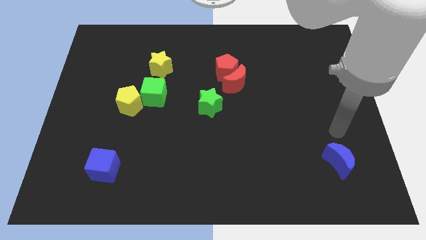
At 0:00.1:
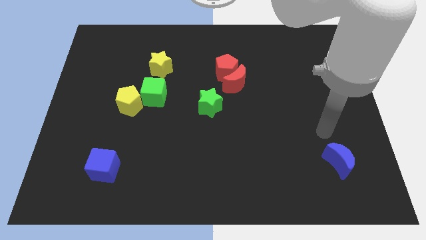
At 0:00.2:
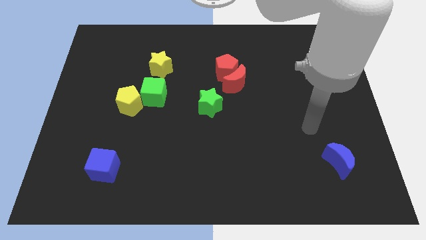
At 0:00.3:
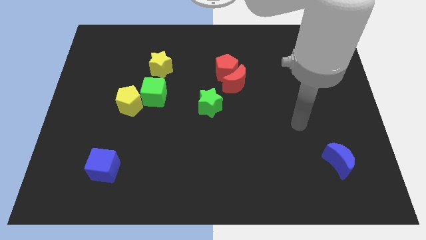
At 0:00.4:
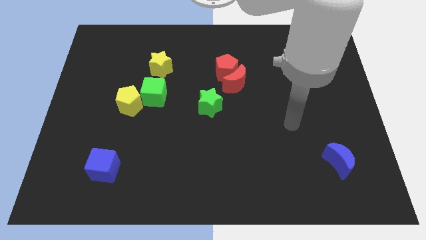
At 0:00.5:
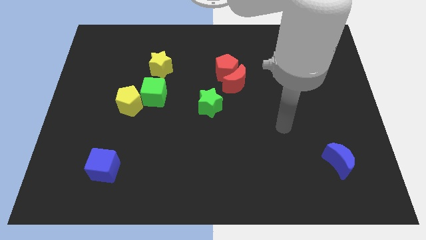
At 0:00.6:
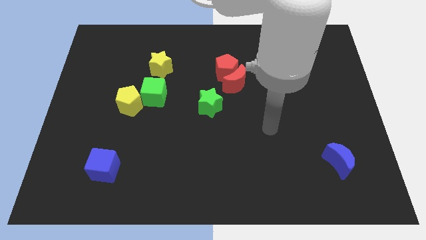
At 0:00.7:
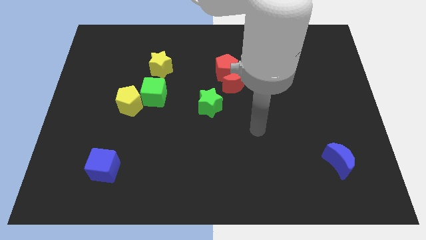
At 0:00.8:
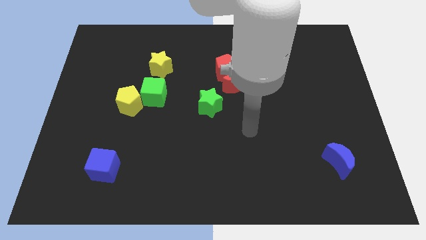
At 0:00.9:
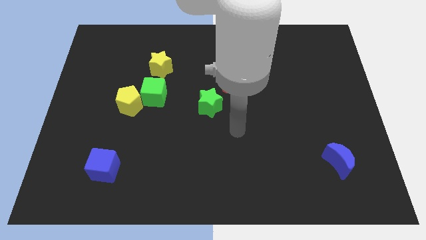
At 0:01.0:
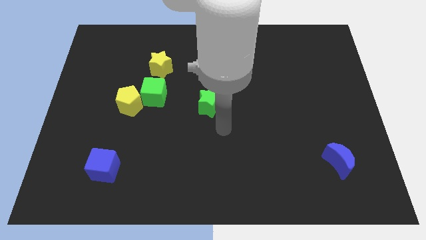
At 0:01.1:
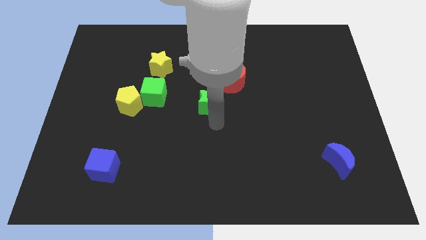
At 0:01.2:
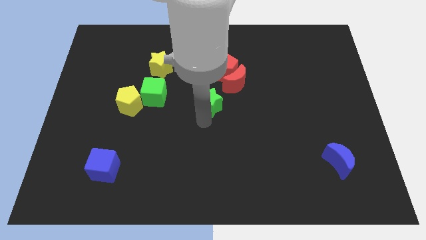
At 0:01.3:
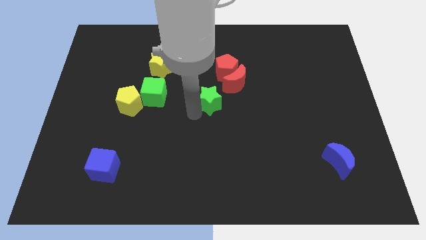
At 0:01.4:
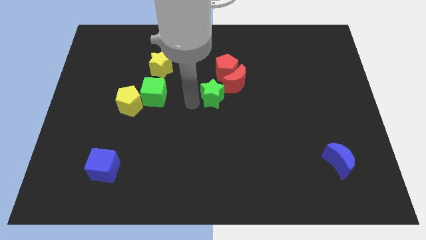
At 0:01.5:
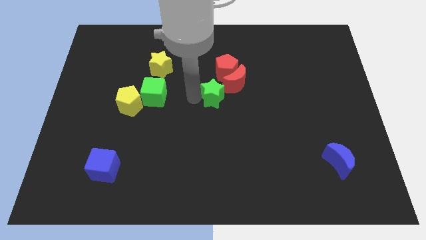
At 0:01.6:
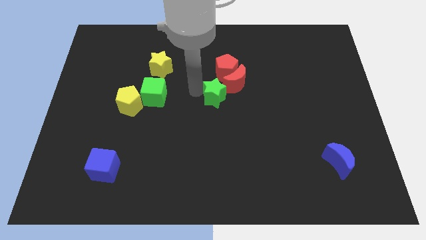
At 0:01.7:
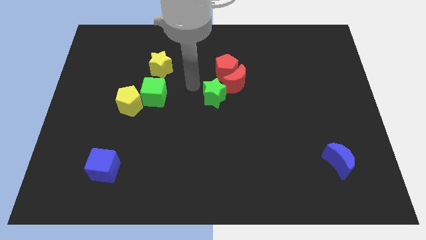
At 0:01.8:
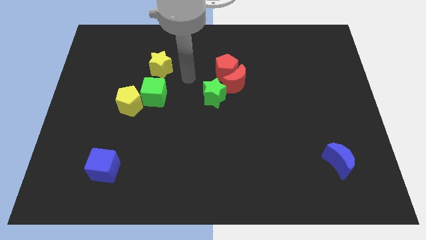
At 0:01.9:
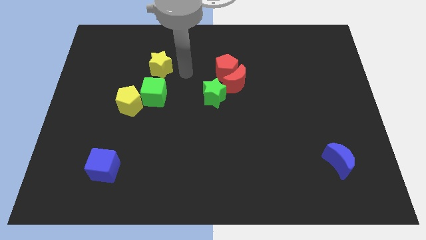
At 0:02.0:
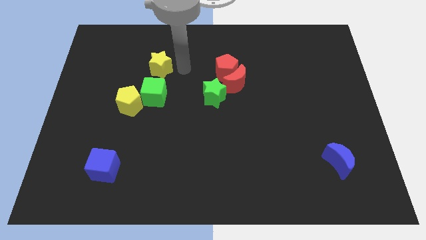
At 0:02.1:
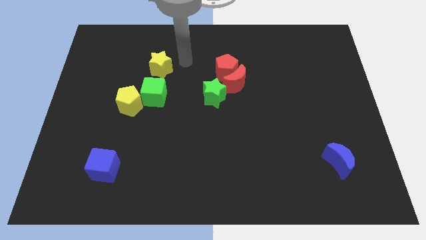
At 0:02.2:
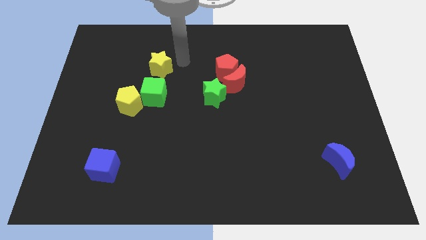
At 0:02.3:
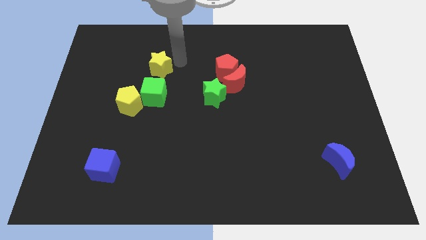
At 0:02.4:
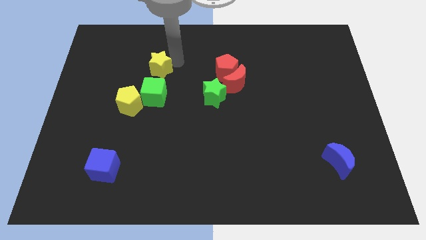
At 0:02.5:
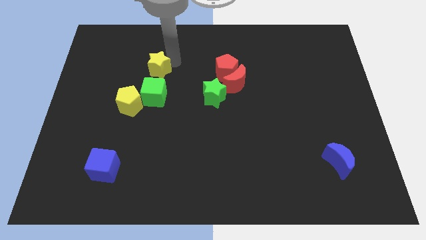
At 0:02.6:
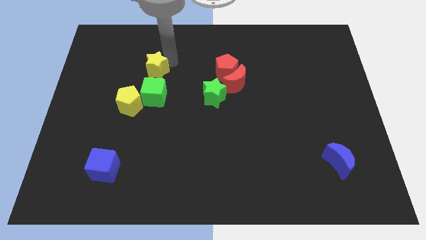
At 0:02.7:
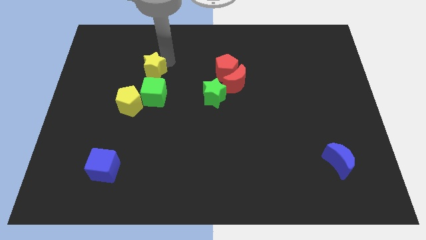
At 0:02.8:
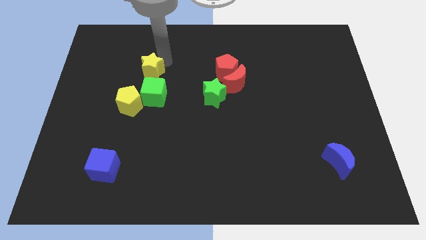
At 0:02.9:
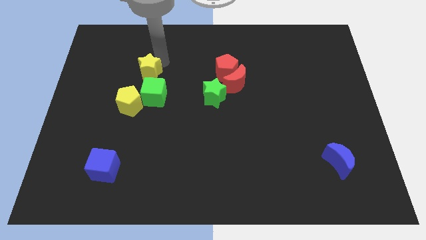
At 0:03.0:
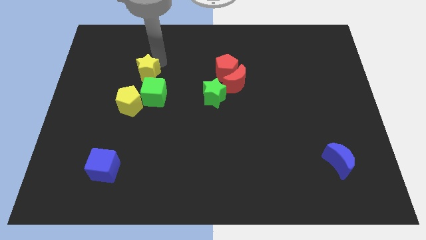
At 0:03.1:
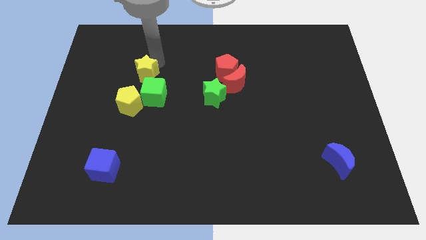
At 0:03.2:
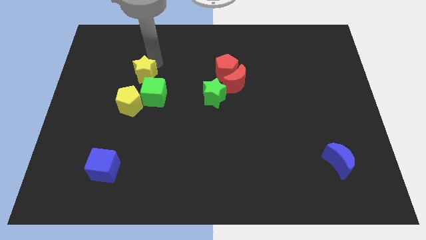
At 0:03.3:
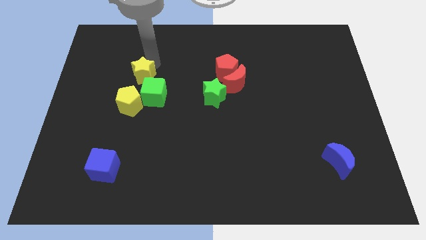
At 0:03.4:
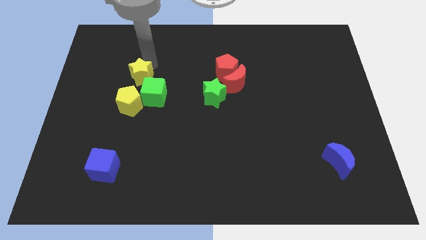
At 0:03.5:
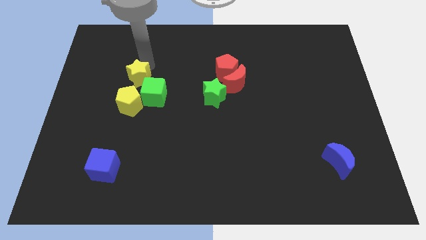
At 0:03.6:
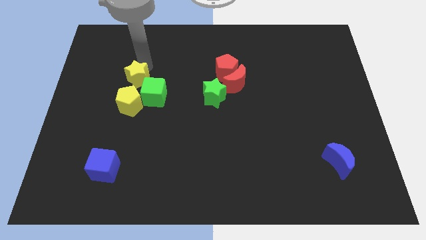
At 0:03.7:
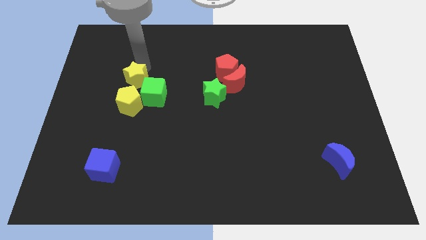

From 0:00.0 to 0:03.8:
move the yellow star slightly down and left diagonally

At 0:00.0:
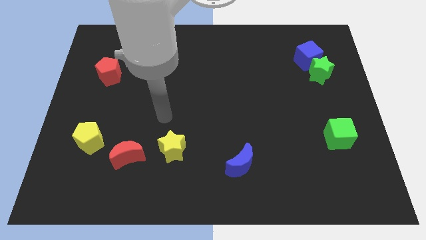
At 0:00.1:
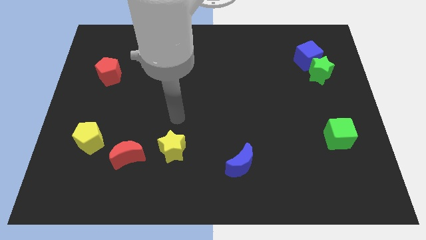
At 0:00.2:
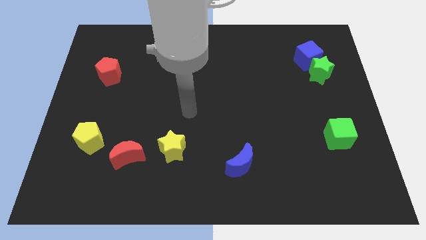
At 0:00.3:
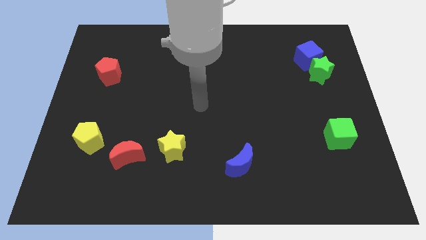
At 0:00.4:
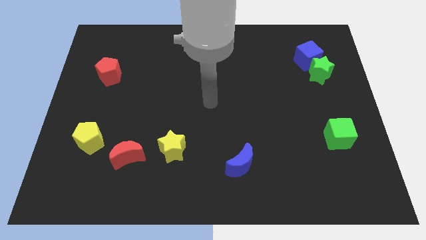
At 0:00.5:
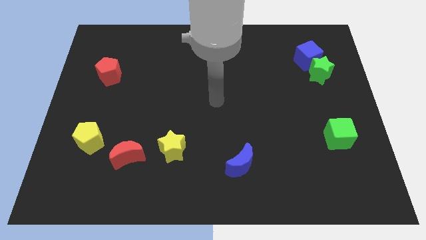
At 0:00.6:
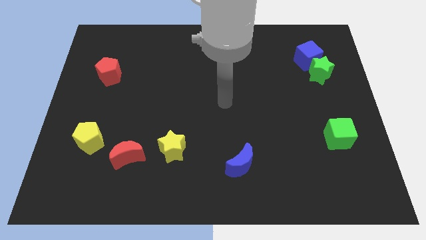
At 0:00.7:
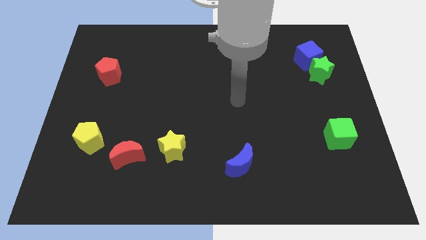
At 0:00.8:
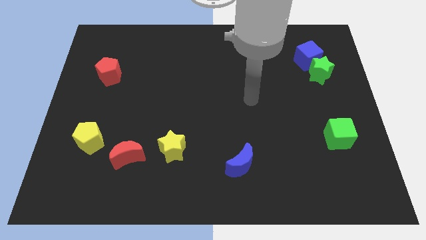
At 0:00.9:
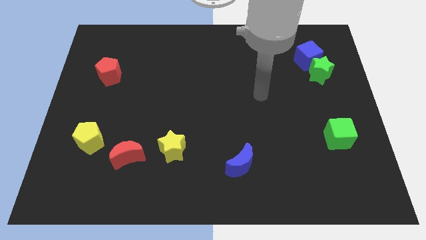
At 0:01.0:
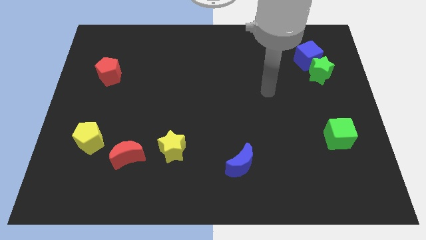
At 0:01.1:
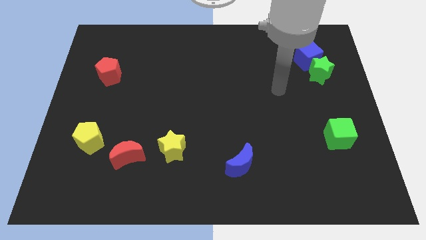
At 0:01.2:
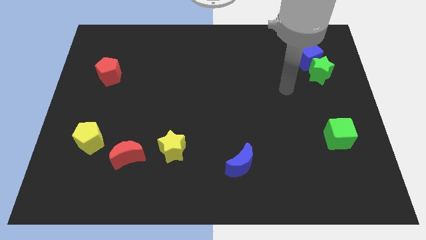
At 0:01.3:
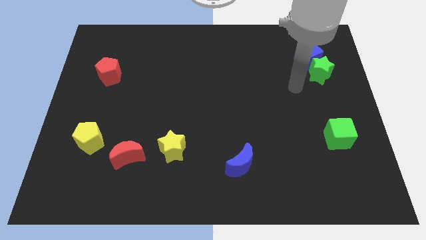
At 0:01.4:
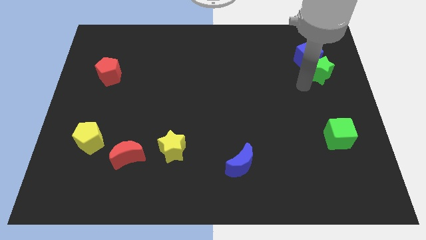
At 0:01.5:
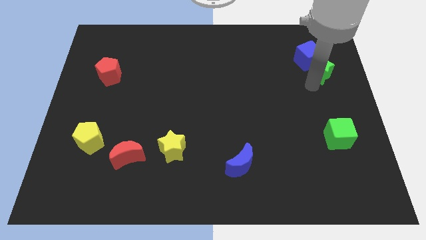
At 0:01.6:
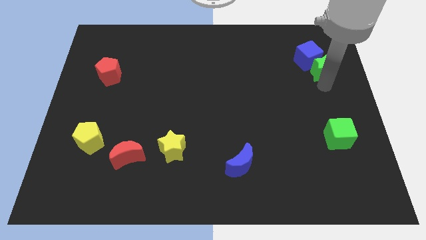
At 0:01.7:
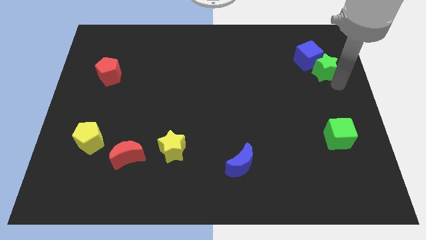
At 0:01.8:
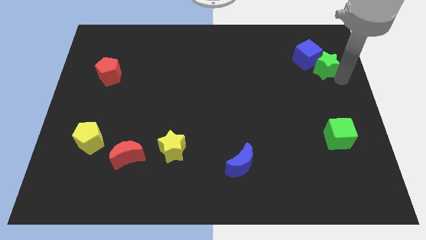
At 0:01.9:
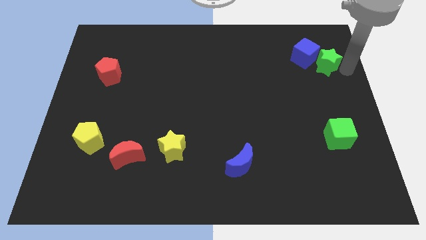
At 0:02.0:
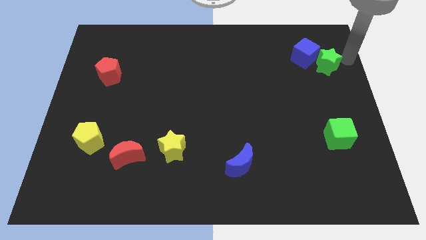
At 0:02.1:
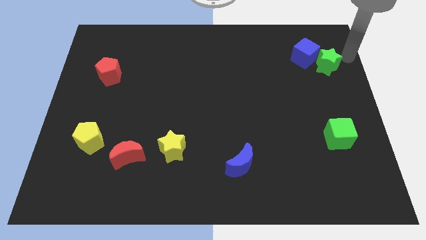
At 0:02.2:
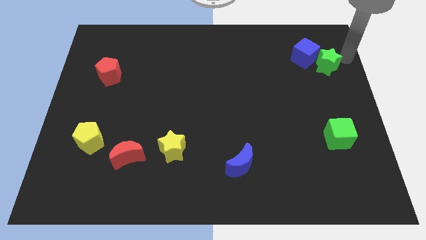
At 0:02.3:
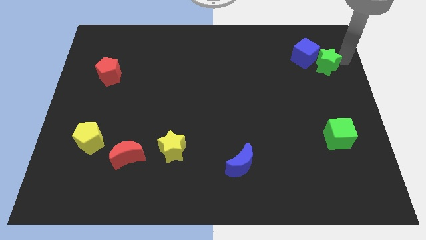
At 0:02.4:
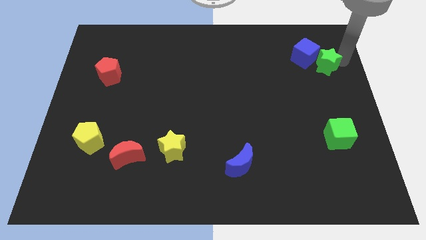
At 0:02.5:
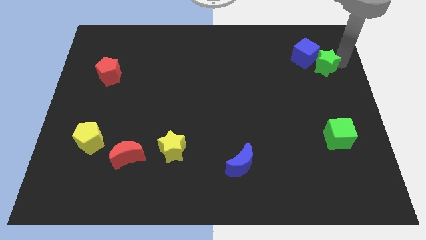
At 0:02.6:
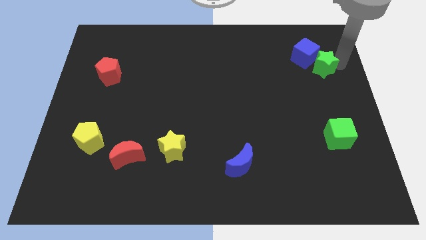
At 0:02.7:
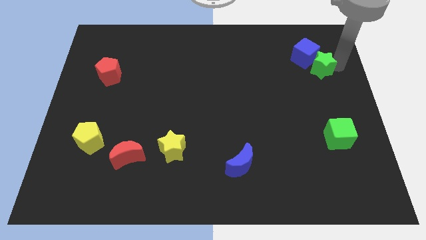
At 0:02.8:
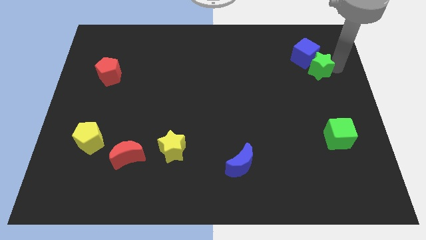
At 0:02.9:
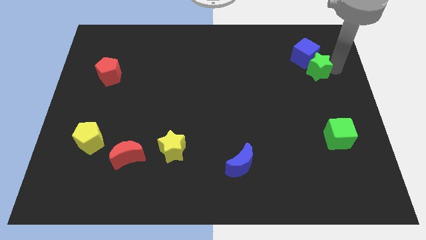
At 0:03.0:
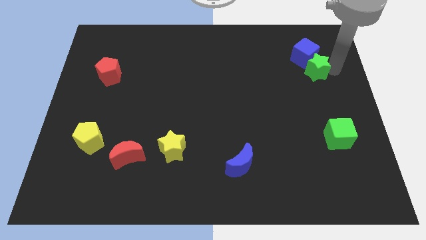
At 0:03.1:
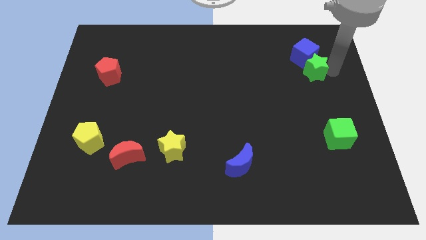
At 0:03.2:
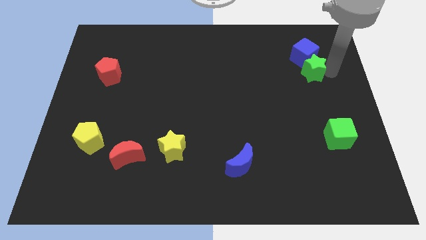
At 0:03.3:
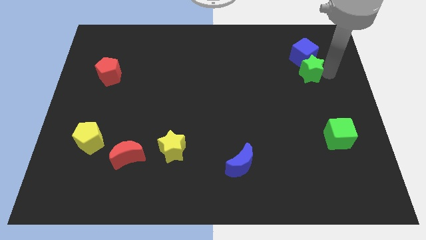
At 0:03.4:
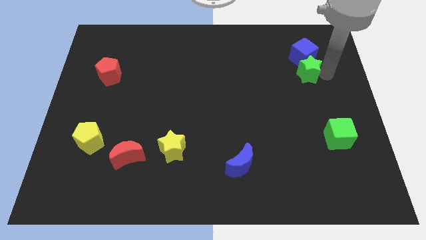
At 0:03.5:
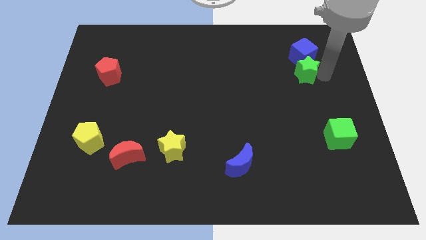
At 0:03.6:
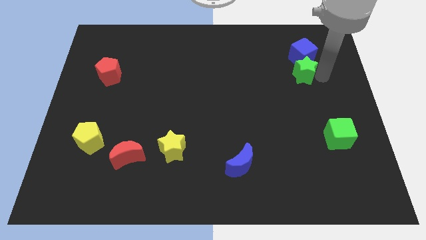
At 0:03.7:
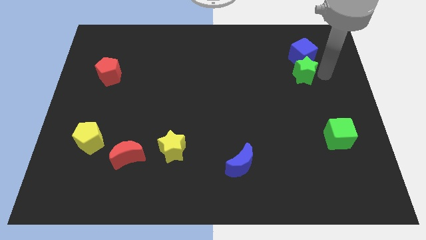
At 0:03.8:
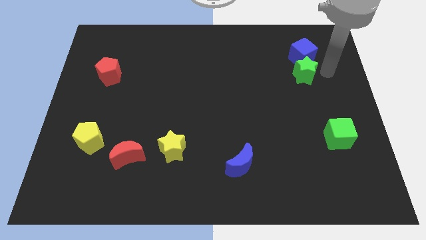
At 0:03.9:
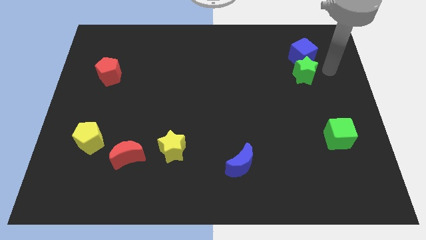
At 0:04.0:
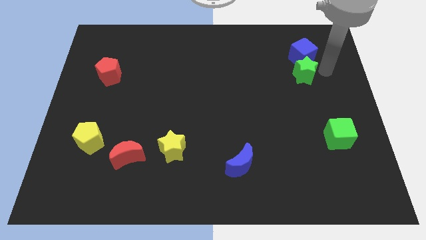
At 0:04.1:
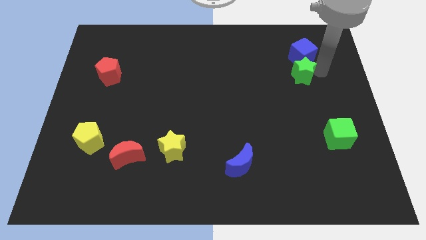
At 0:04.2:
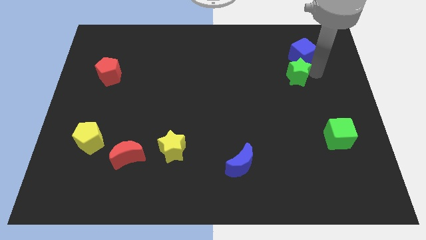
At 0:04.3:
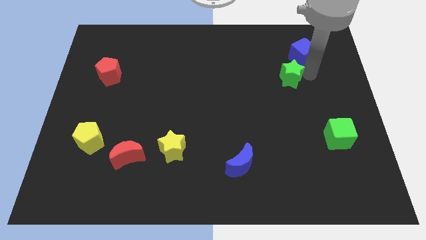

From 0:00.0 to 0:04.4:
slide the green star slightly to the left
